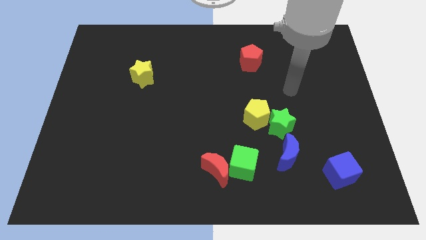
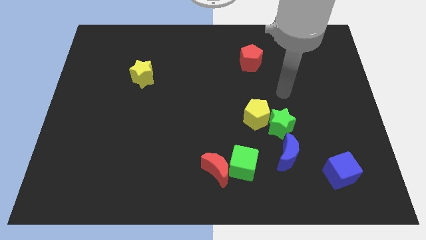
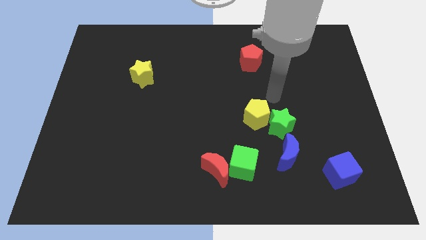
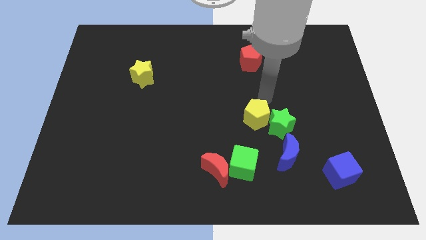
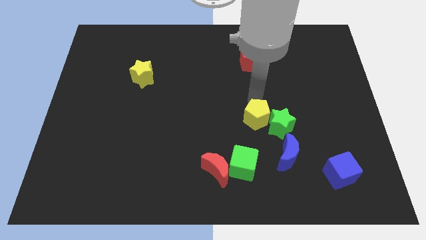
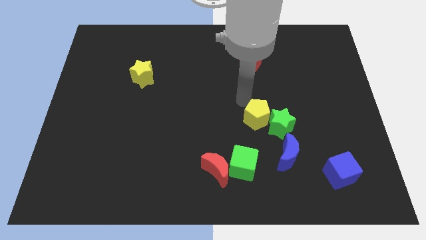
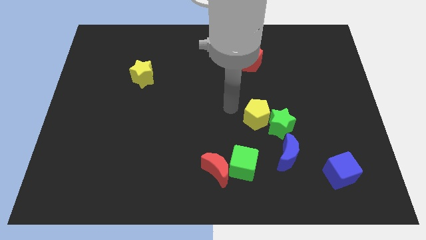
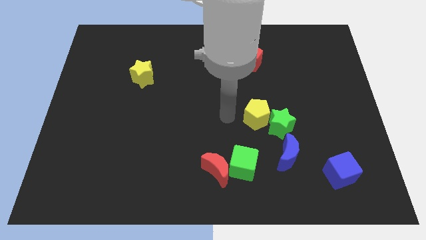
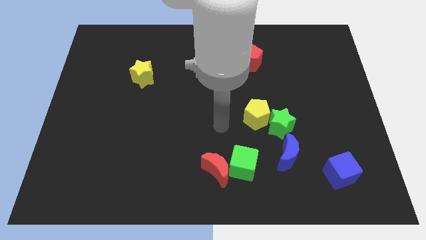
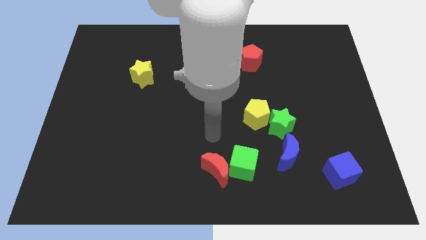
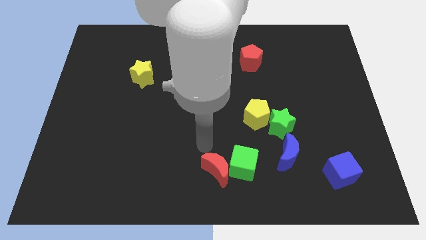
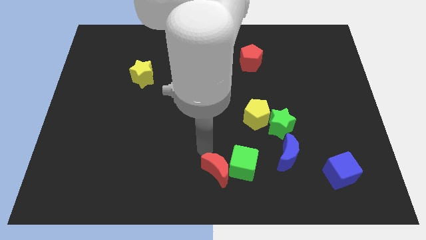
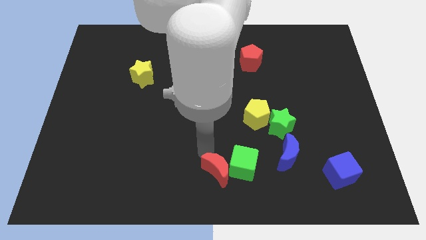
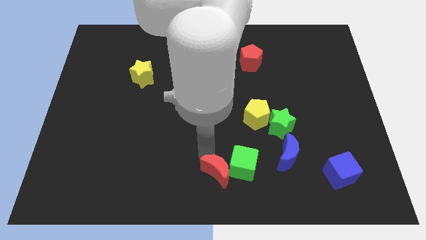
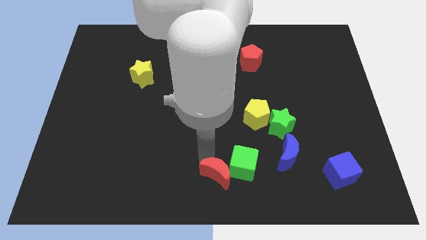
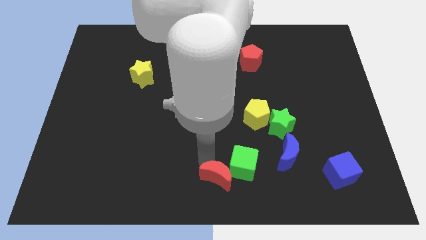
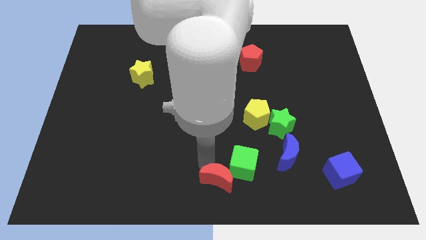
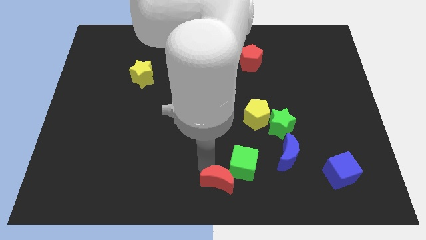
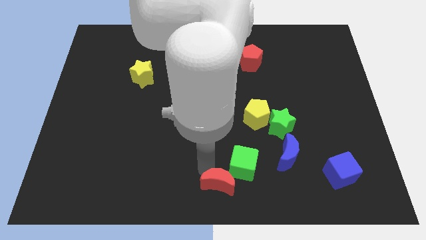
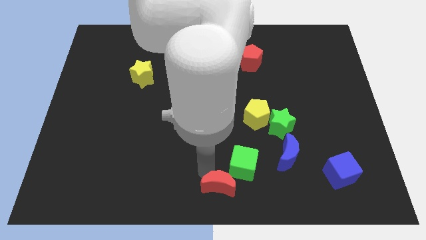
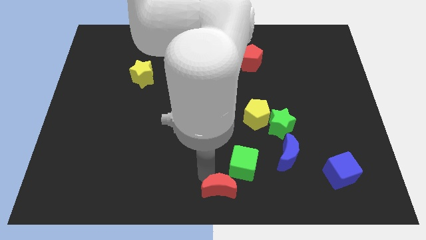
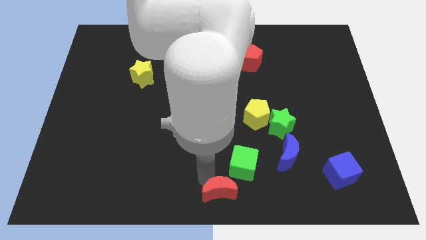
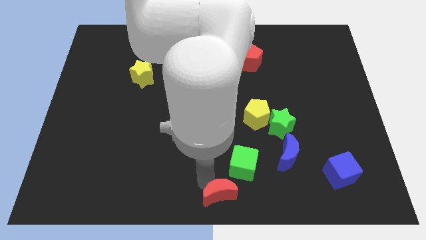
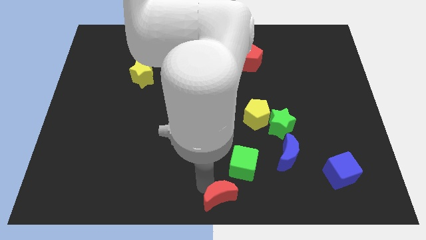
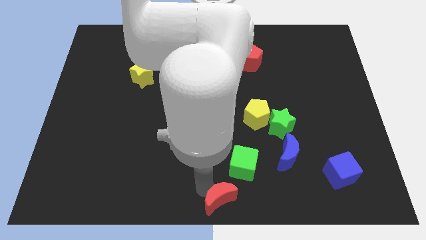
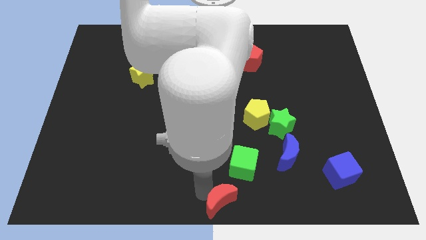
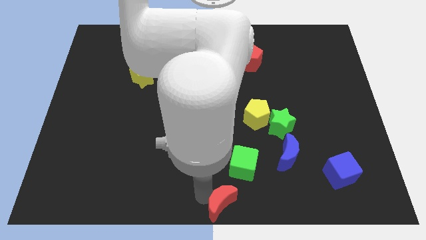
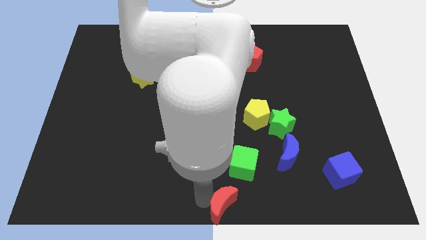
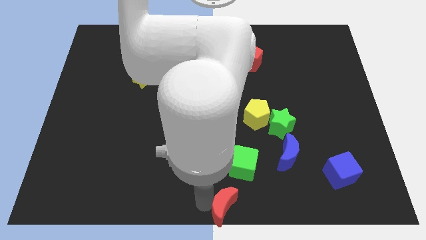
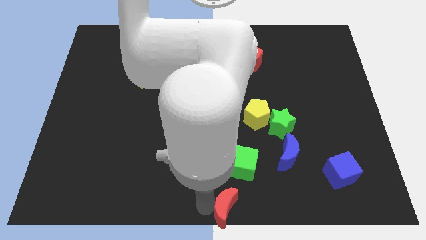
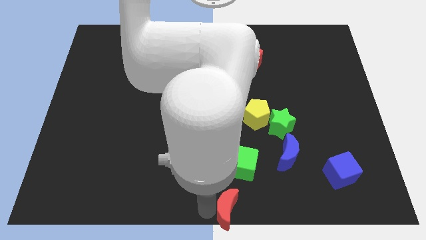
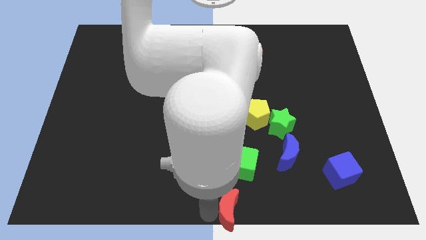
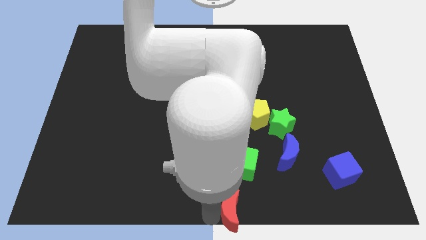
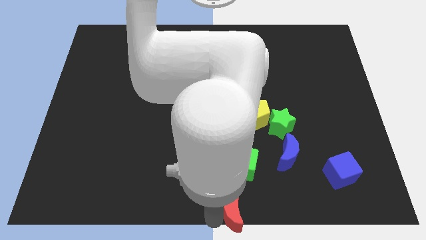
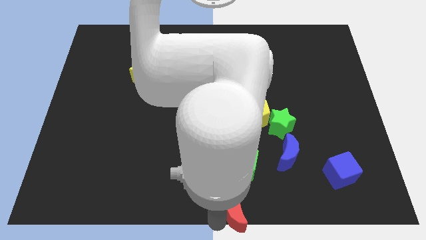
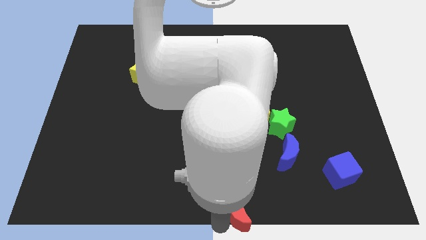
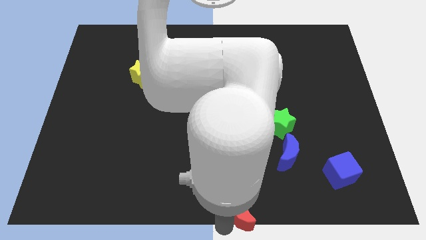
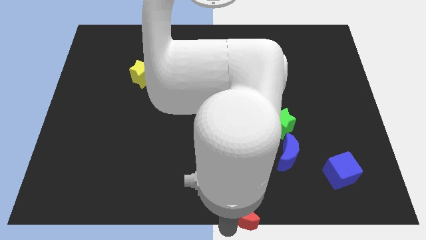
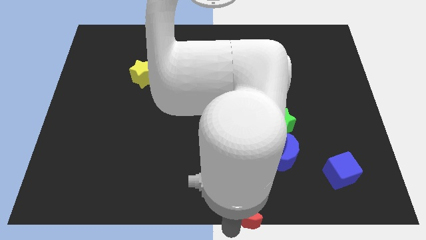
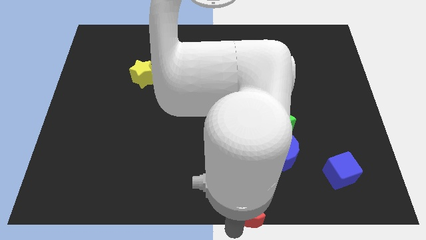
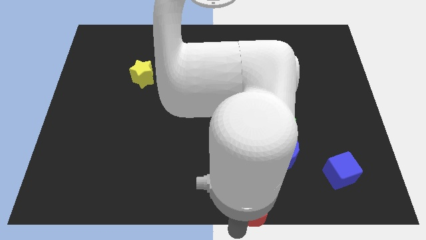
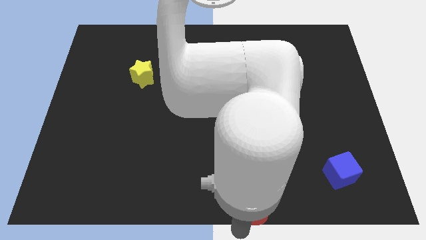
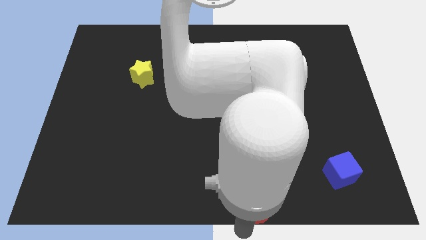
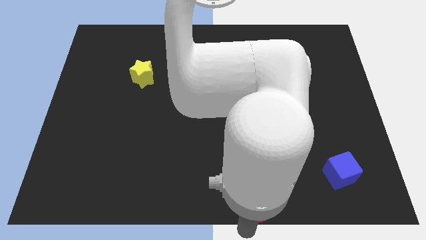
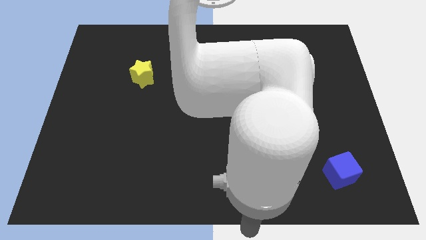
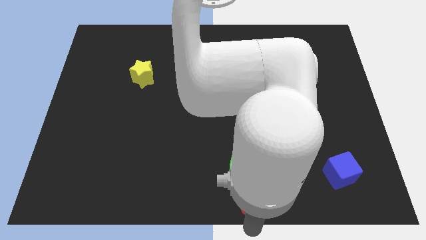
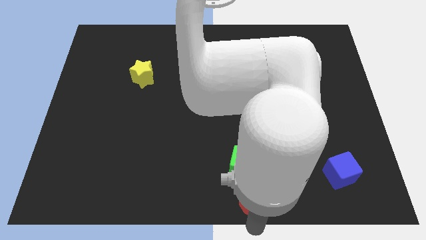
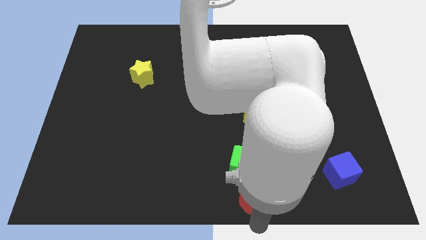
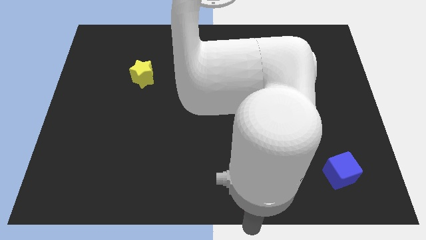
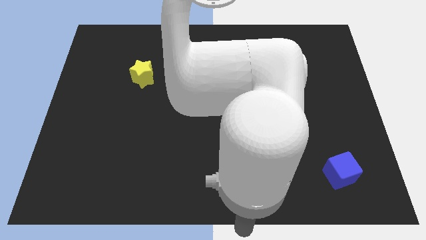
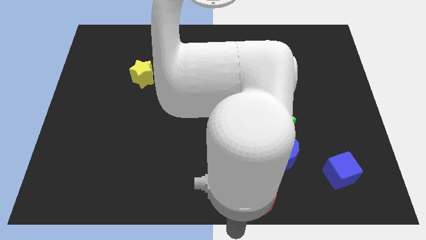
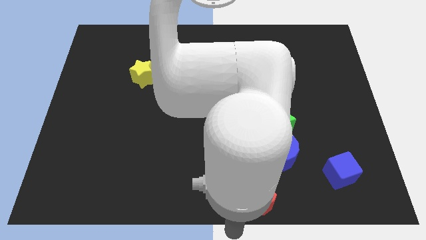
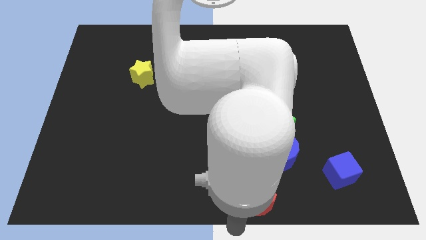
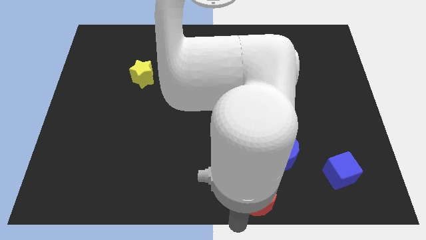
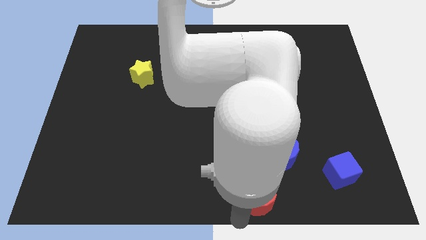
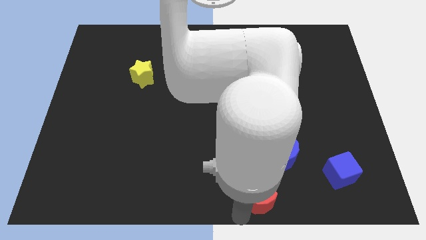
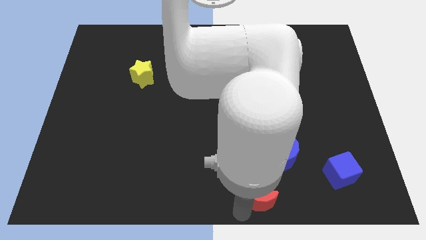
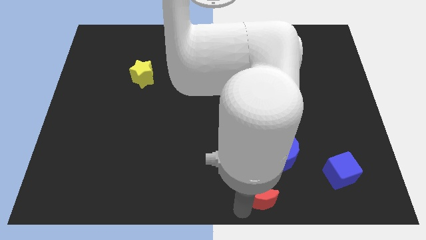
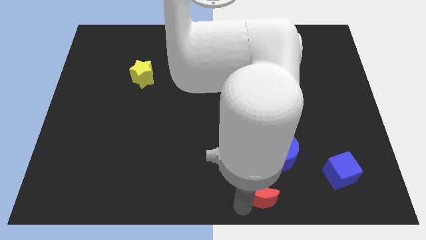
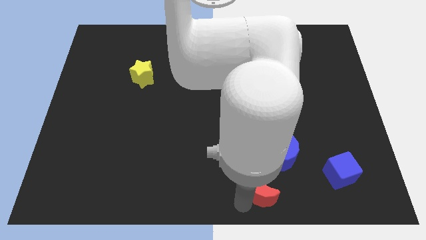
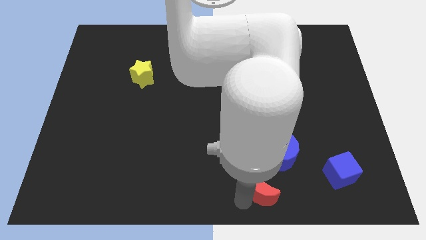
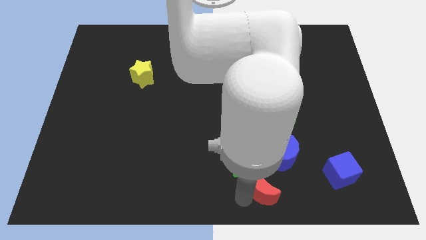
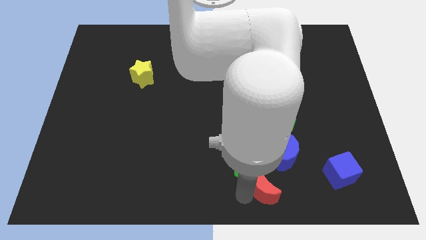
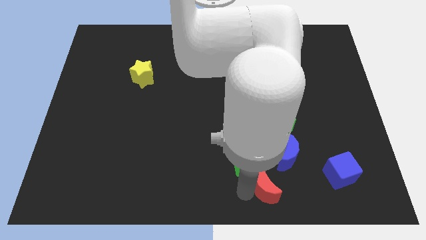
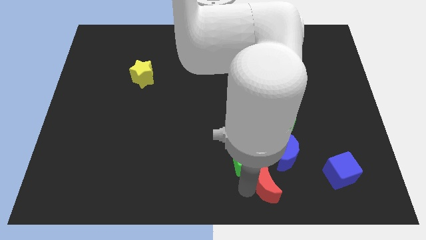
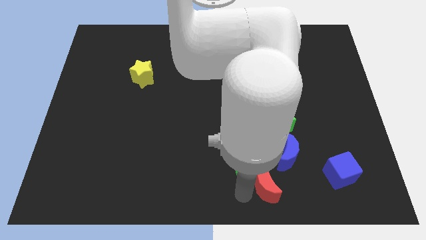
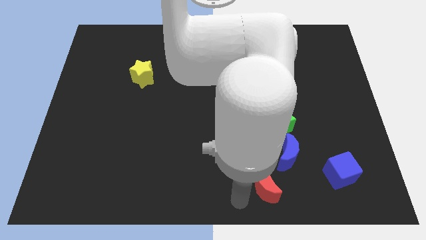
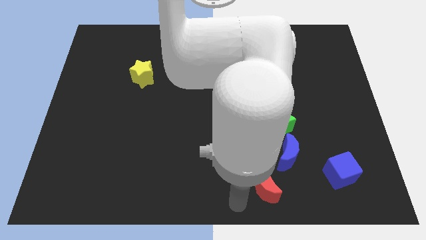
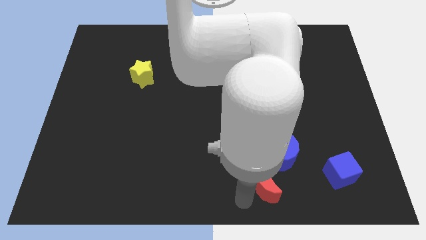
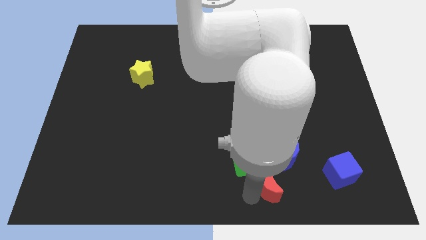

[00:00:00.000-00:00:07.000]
push the red moon to the left of the blue cube
